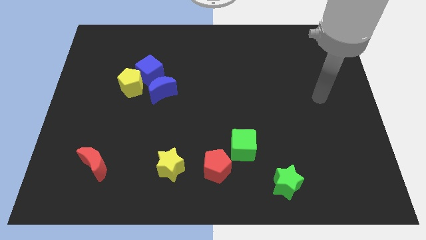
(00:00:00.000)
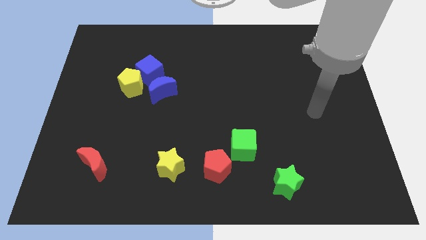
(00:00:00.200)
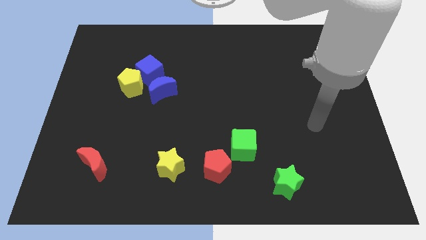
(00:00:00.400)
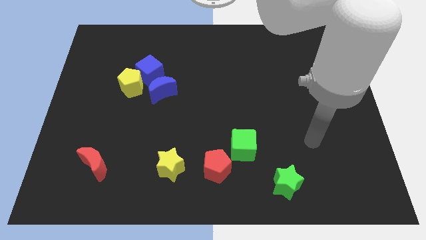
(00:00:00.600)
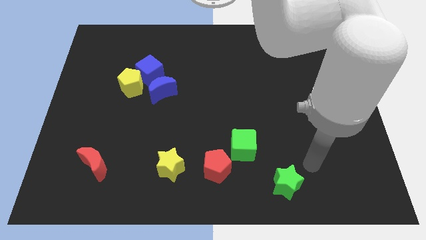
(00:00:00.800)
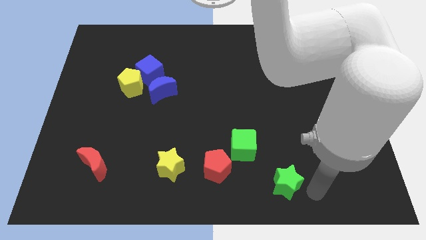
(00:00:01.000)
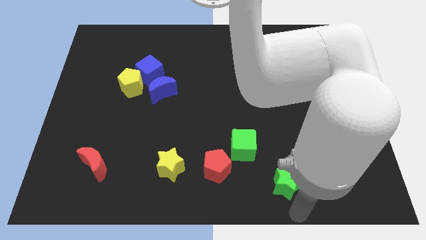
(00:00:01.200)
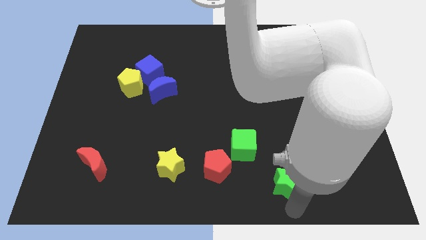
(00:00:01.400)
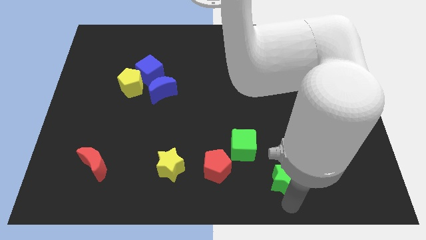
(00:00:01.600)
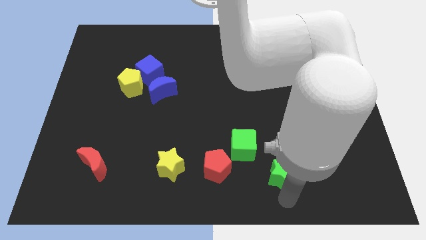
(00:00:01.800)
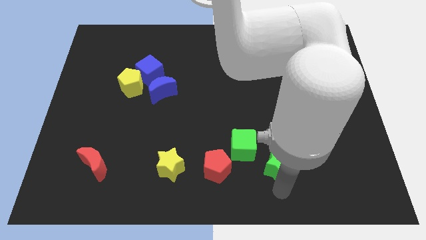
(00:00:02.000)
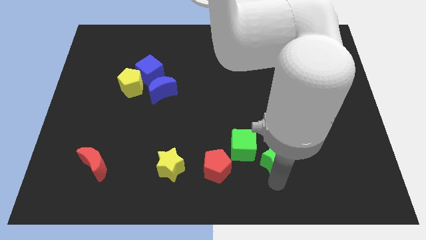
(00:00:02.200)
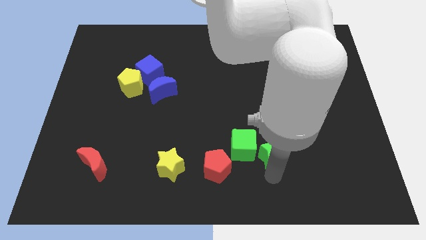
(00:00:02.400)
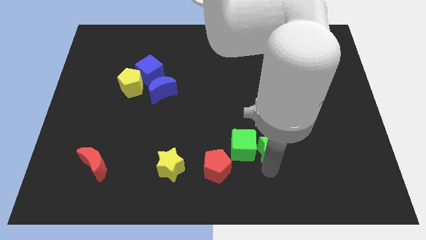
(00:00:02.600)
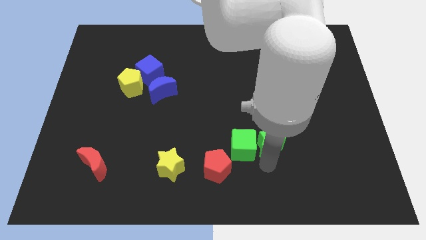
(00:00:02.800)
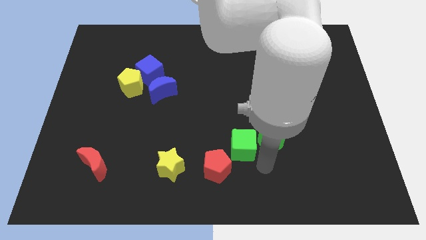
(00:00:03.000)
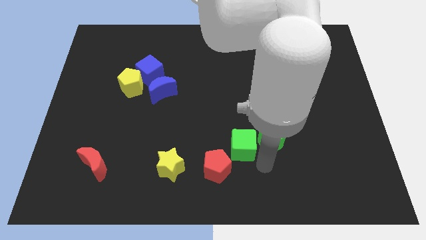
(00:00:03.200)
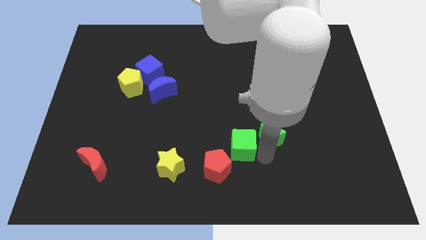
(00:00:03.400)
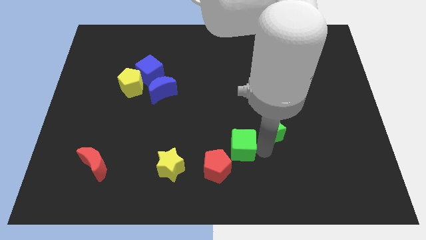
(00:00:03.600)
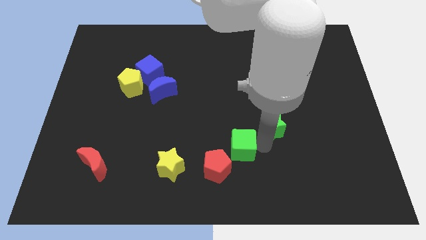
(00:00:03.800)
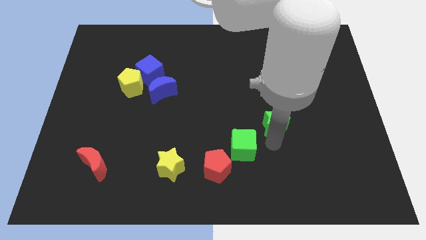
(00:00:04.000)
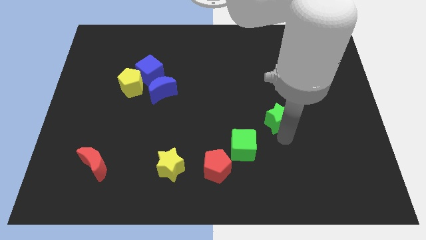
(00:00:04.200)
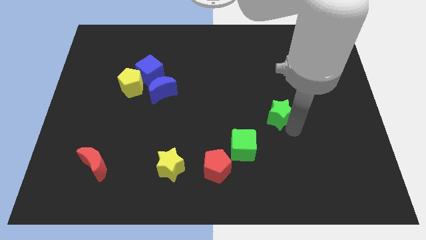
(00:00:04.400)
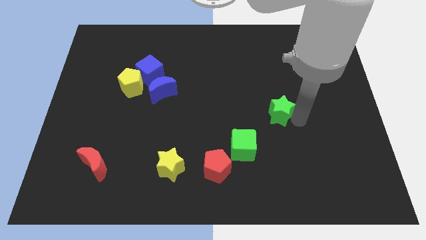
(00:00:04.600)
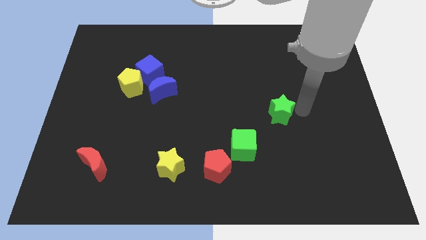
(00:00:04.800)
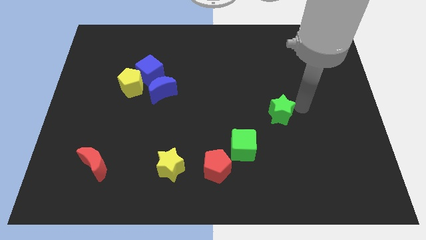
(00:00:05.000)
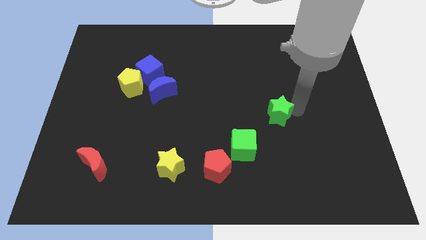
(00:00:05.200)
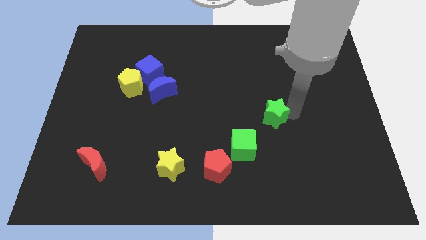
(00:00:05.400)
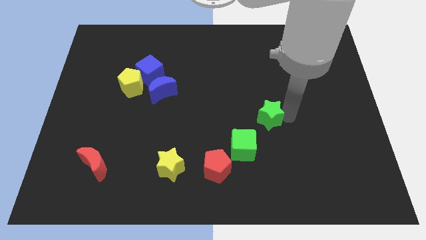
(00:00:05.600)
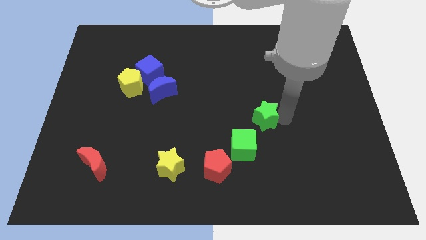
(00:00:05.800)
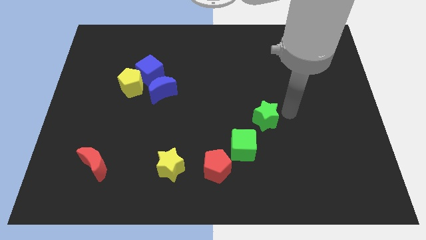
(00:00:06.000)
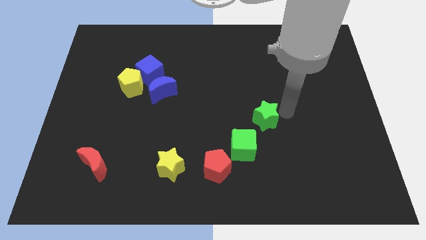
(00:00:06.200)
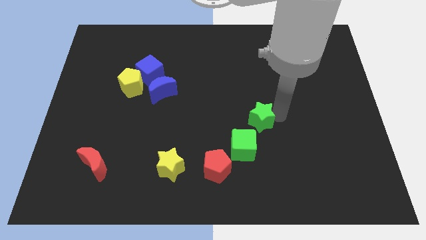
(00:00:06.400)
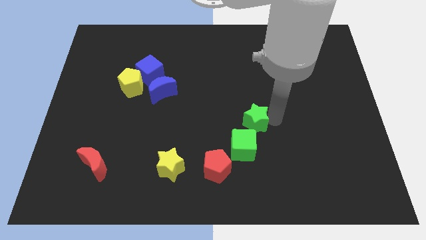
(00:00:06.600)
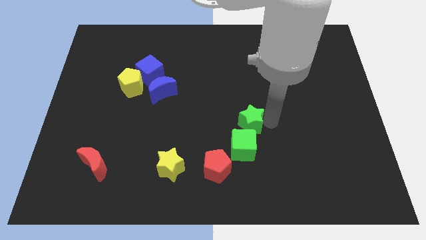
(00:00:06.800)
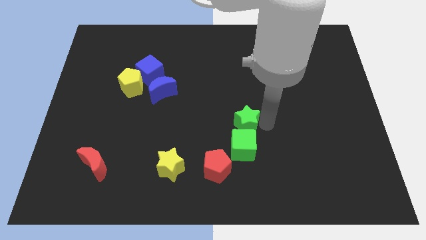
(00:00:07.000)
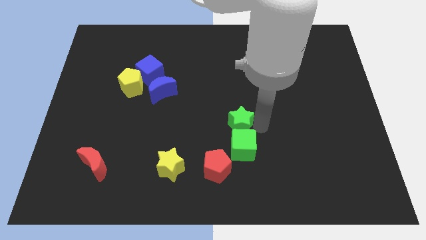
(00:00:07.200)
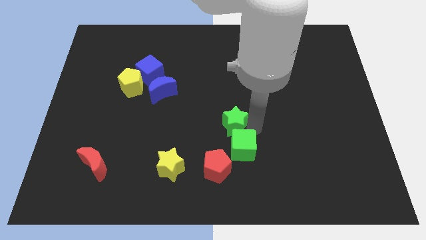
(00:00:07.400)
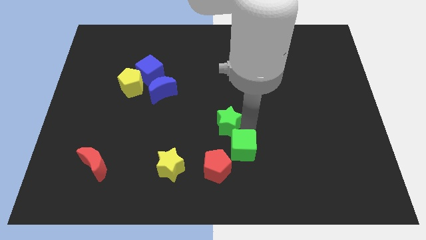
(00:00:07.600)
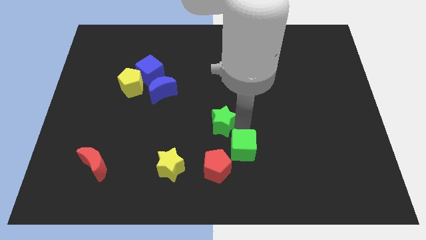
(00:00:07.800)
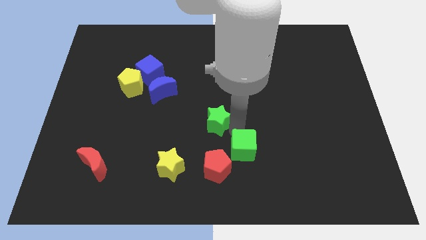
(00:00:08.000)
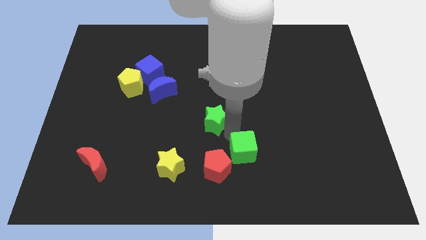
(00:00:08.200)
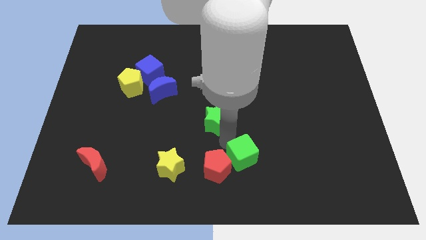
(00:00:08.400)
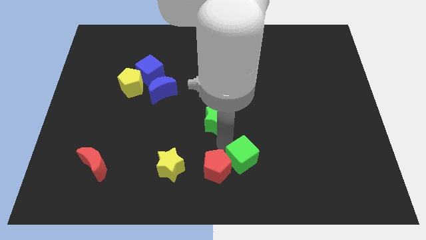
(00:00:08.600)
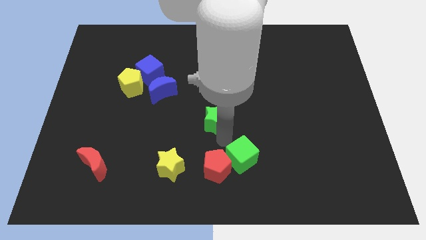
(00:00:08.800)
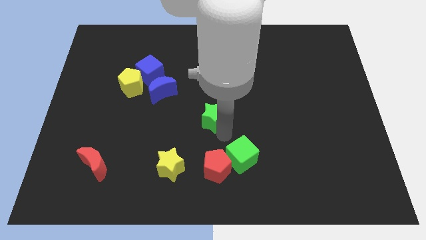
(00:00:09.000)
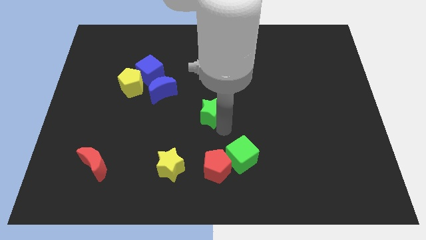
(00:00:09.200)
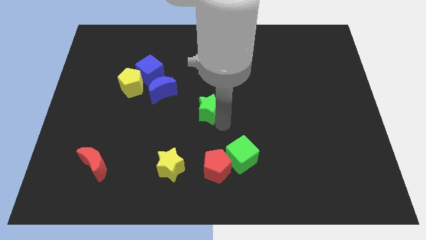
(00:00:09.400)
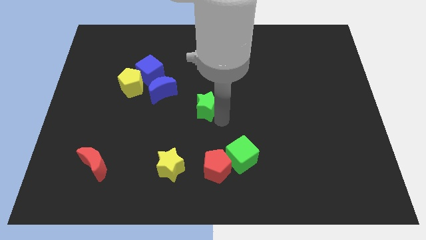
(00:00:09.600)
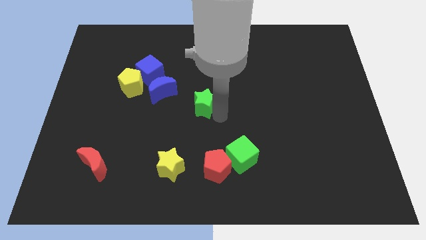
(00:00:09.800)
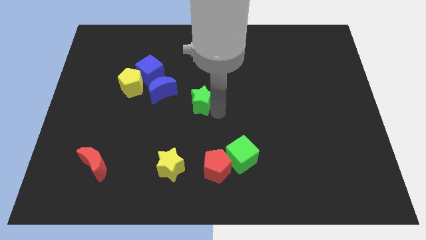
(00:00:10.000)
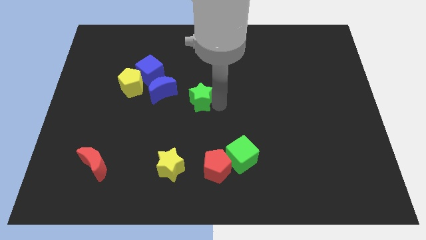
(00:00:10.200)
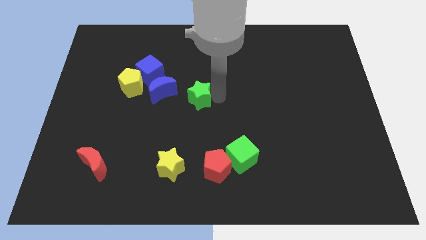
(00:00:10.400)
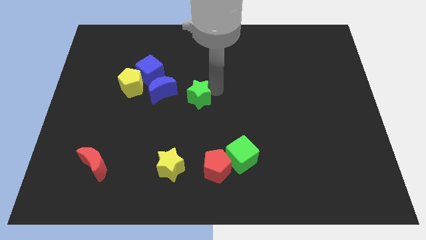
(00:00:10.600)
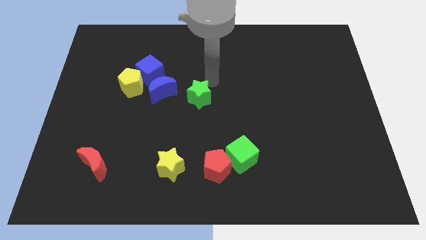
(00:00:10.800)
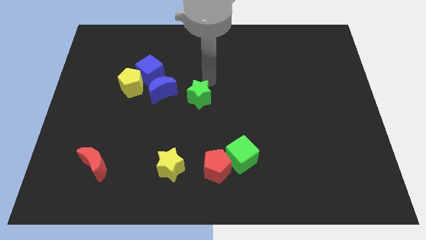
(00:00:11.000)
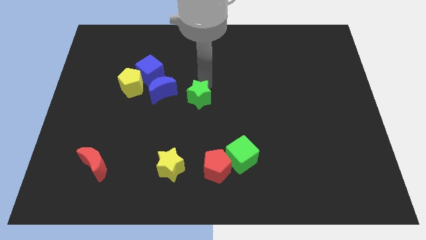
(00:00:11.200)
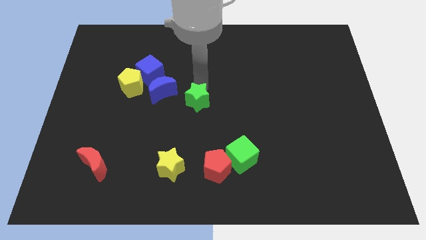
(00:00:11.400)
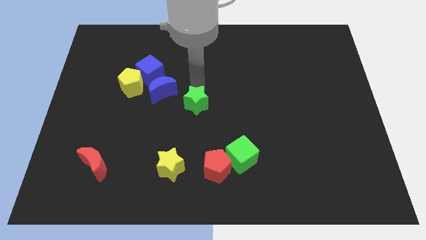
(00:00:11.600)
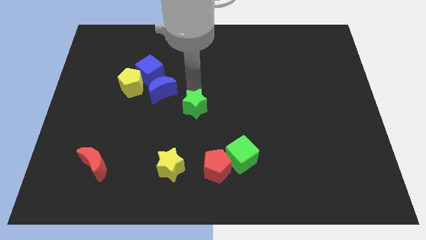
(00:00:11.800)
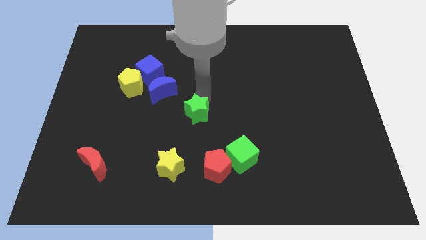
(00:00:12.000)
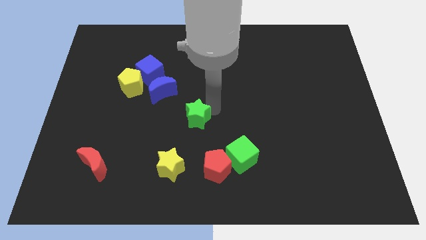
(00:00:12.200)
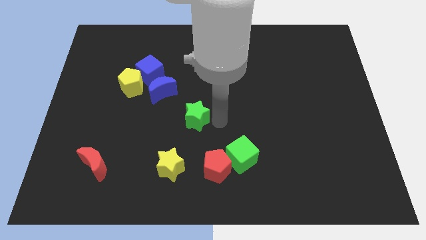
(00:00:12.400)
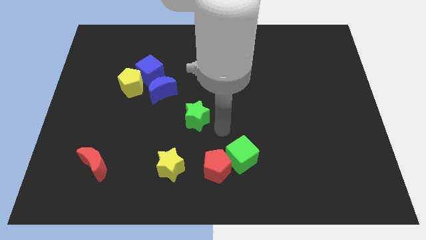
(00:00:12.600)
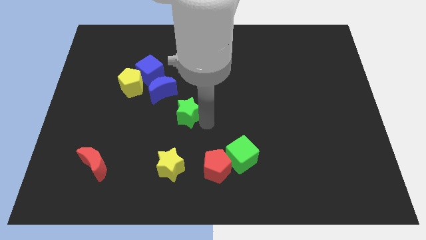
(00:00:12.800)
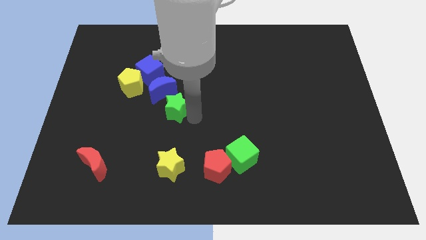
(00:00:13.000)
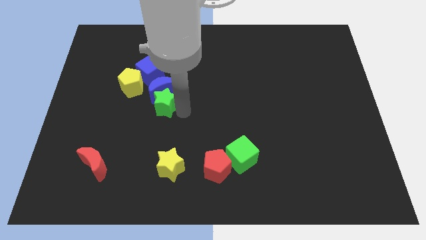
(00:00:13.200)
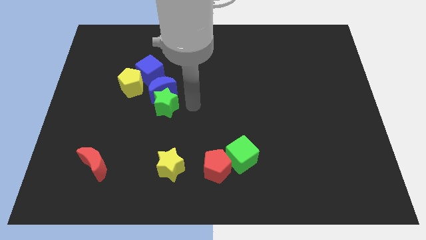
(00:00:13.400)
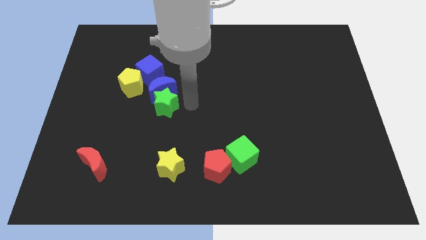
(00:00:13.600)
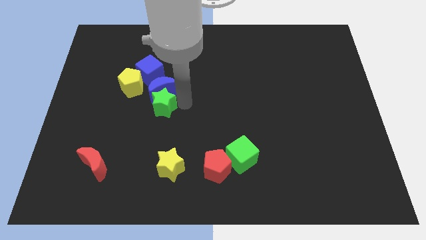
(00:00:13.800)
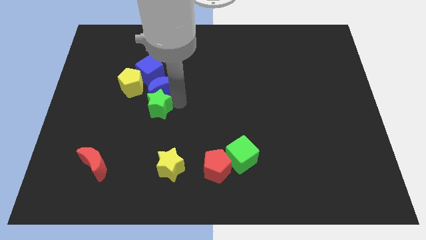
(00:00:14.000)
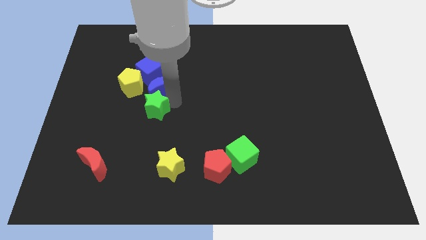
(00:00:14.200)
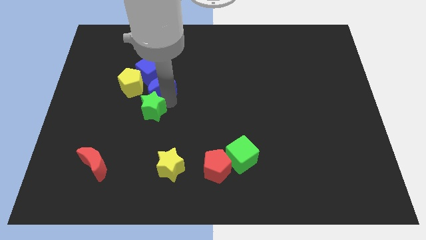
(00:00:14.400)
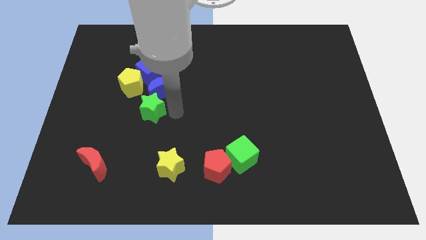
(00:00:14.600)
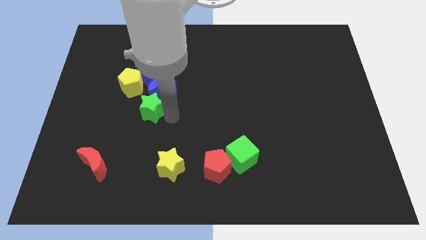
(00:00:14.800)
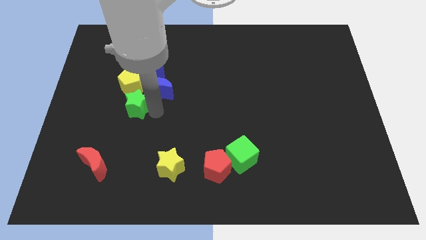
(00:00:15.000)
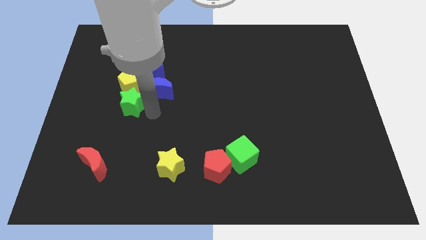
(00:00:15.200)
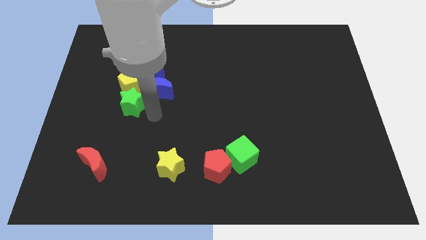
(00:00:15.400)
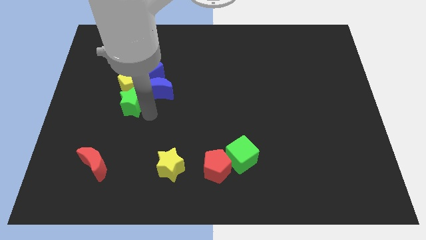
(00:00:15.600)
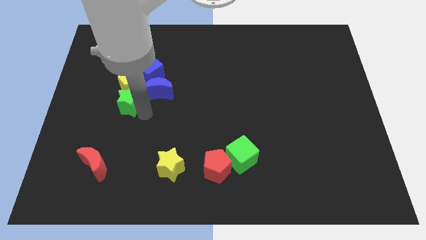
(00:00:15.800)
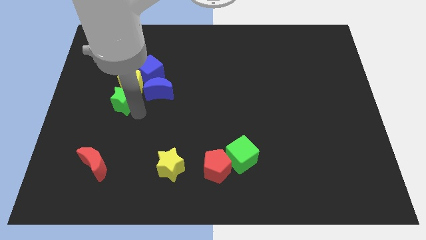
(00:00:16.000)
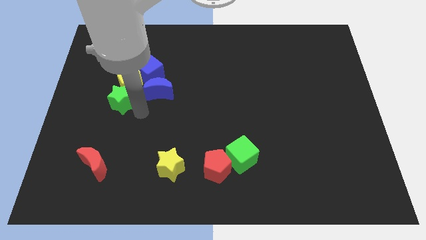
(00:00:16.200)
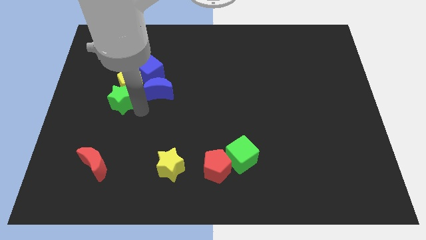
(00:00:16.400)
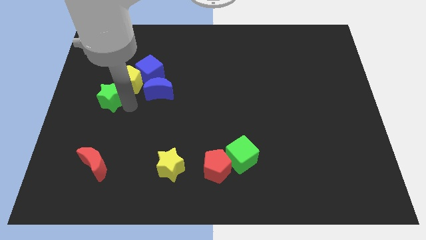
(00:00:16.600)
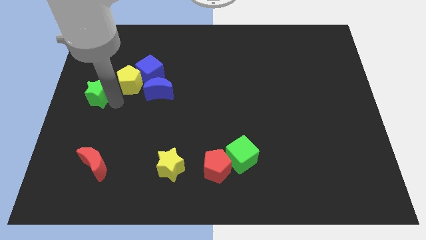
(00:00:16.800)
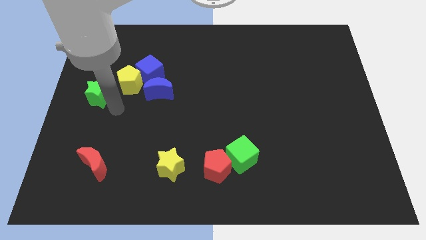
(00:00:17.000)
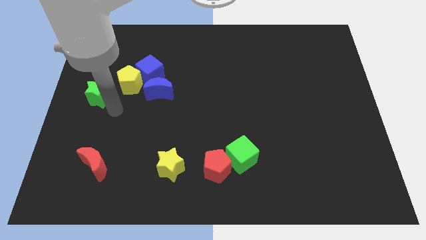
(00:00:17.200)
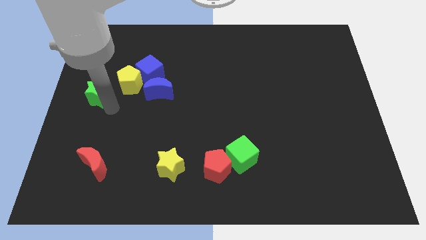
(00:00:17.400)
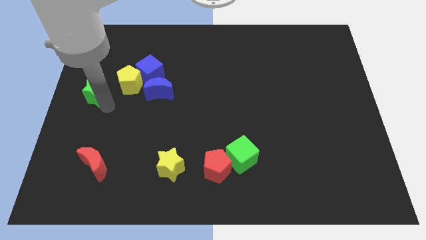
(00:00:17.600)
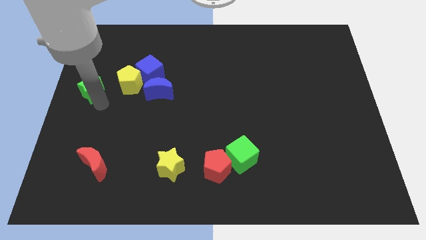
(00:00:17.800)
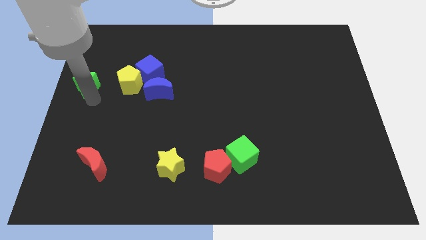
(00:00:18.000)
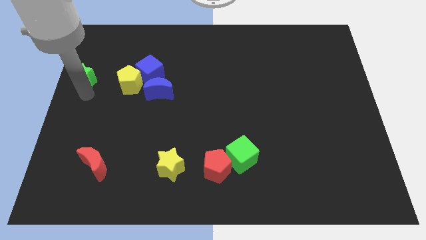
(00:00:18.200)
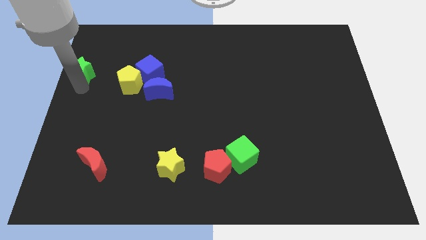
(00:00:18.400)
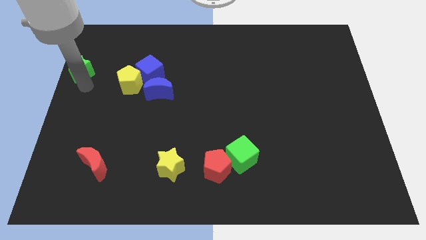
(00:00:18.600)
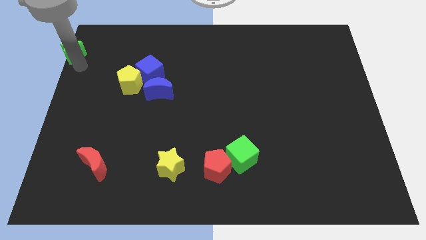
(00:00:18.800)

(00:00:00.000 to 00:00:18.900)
put the green star to the top left of the board
